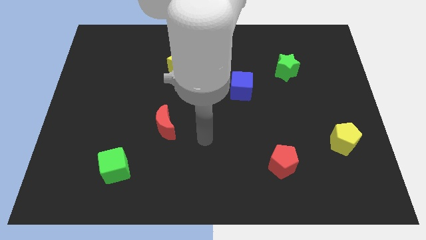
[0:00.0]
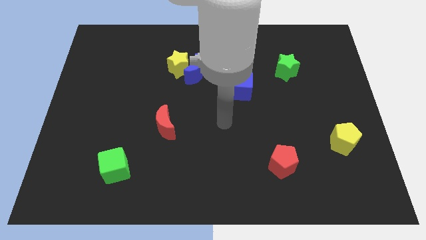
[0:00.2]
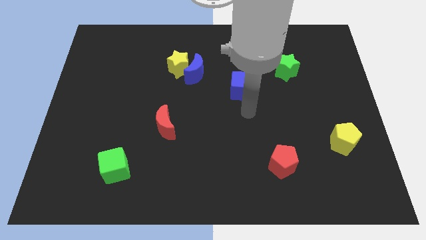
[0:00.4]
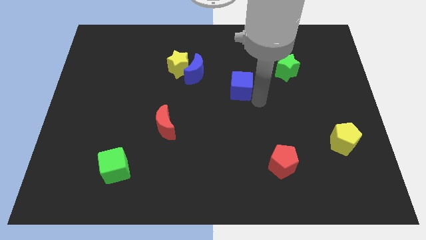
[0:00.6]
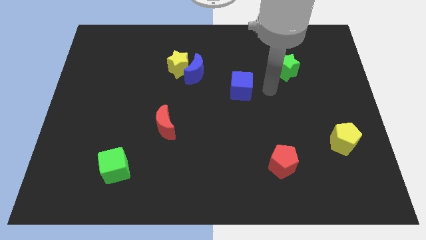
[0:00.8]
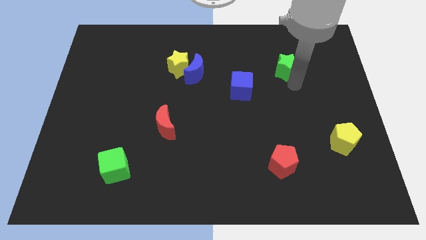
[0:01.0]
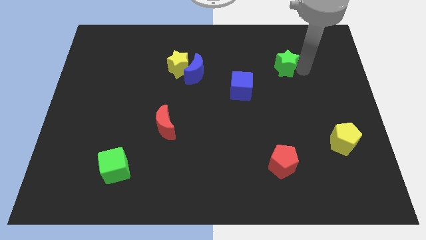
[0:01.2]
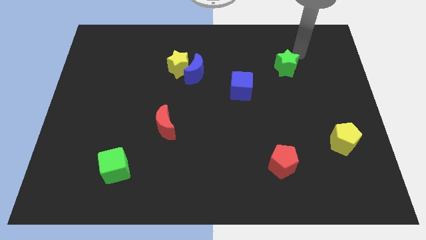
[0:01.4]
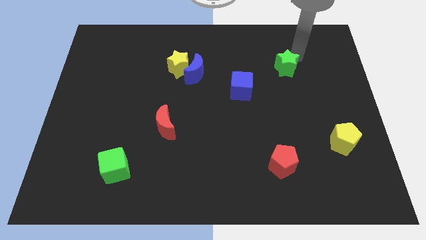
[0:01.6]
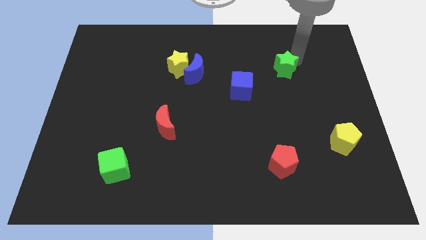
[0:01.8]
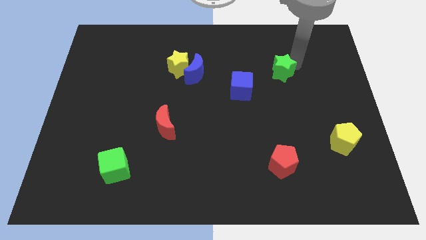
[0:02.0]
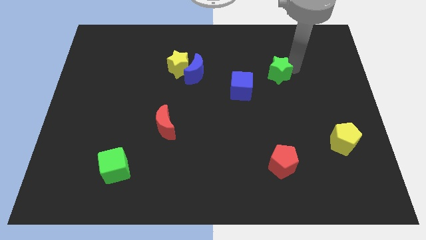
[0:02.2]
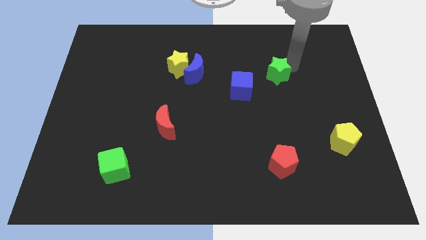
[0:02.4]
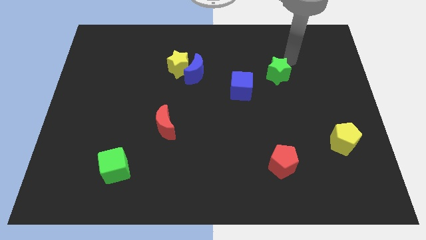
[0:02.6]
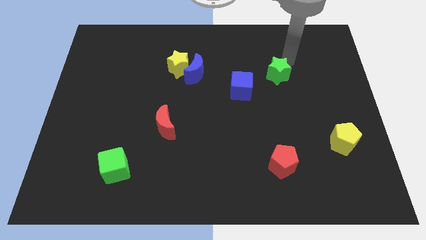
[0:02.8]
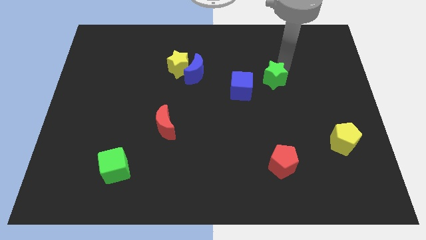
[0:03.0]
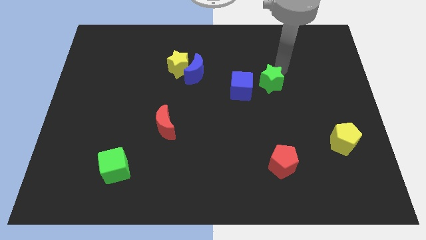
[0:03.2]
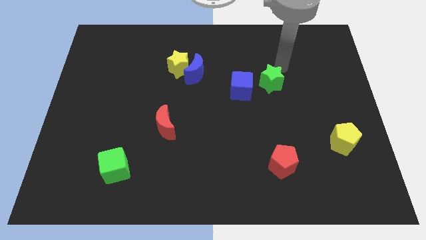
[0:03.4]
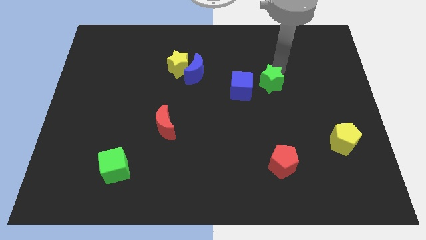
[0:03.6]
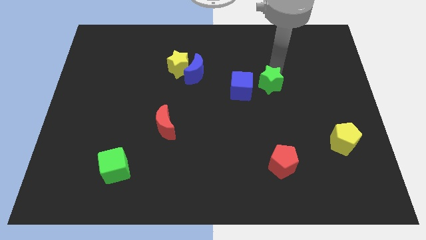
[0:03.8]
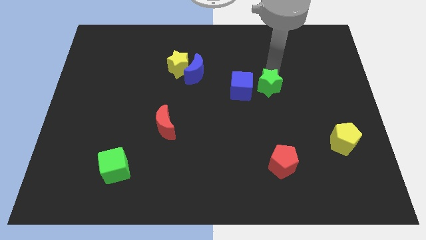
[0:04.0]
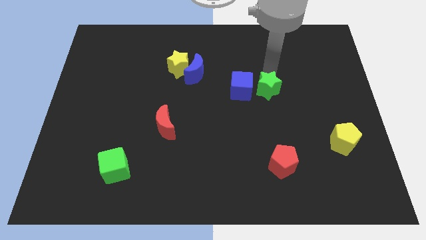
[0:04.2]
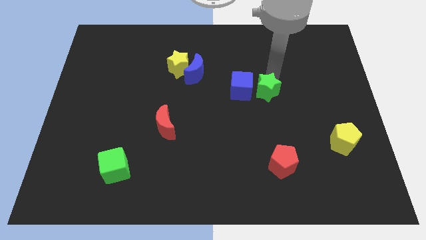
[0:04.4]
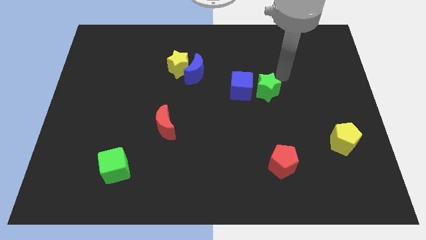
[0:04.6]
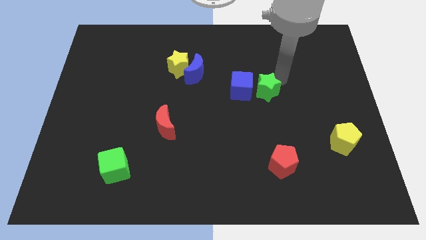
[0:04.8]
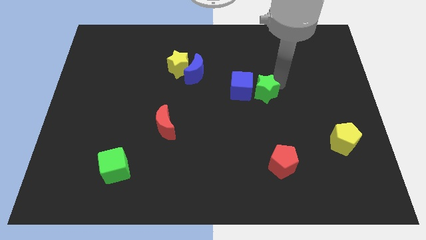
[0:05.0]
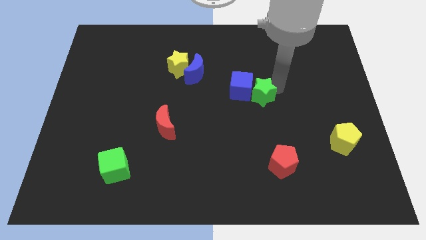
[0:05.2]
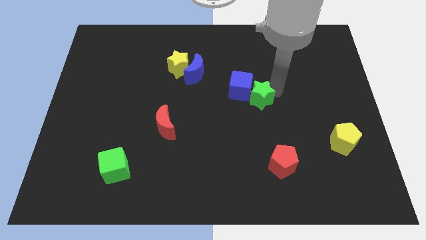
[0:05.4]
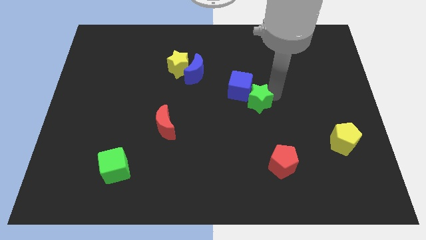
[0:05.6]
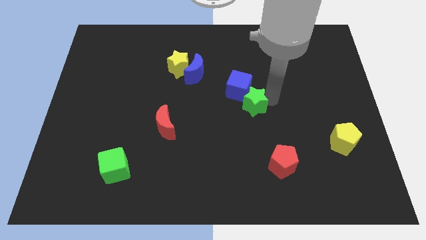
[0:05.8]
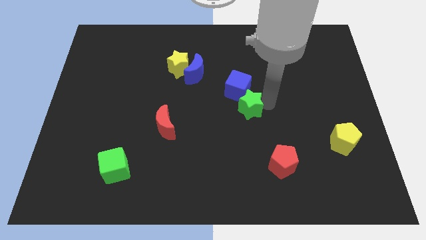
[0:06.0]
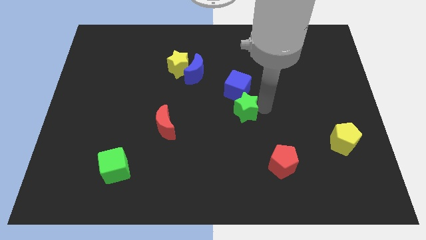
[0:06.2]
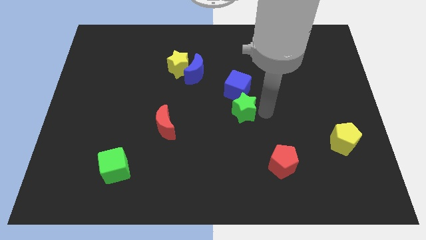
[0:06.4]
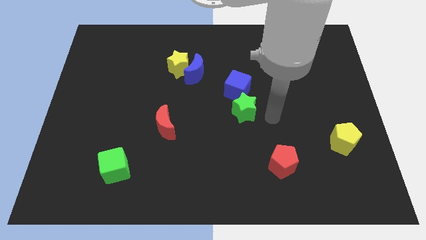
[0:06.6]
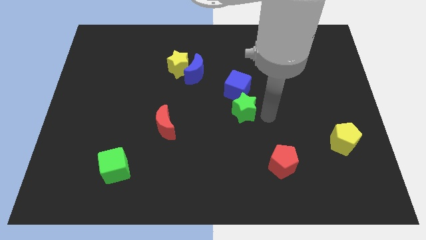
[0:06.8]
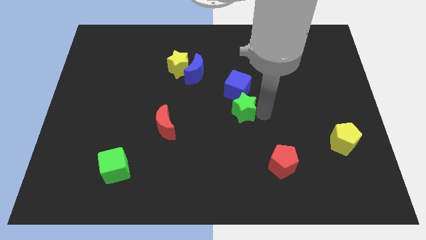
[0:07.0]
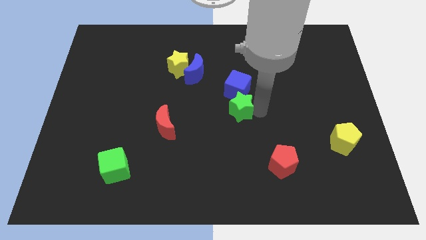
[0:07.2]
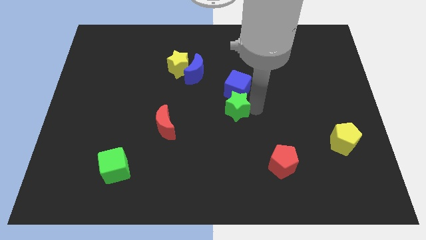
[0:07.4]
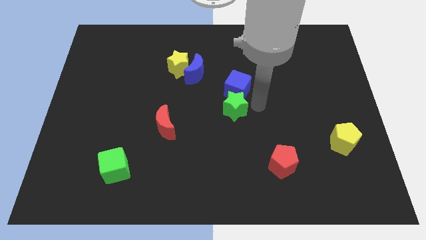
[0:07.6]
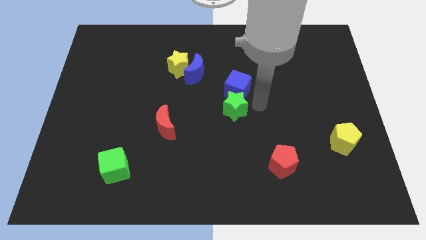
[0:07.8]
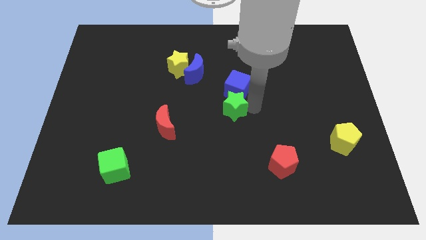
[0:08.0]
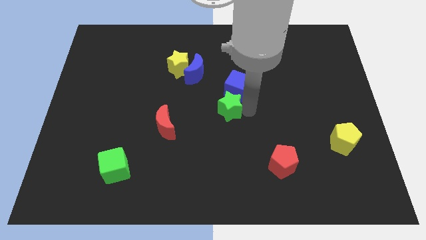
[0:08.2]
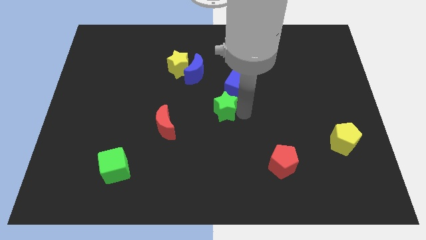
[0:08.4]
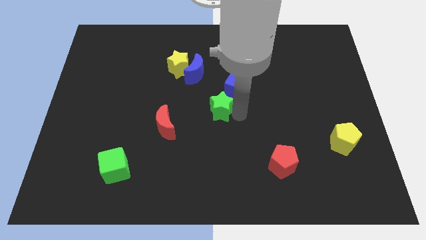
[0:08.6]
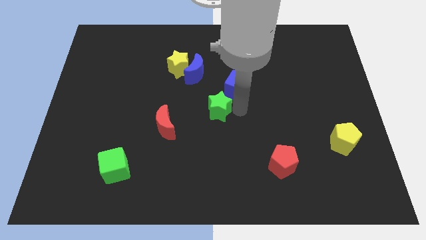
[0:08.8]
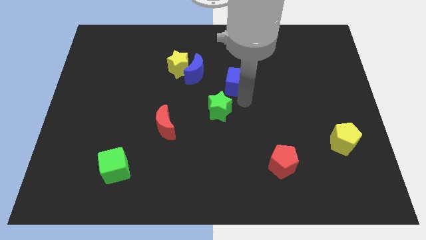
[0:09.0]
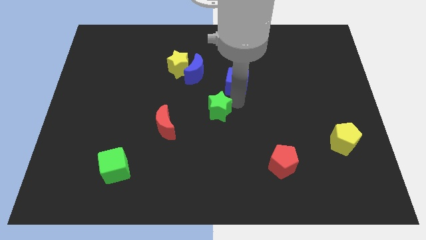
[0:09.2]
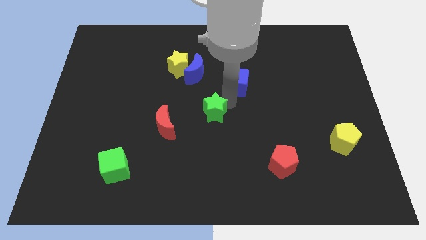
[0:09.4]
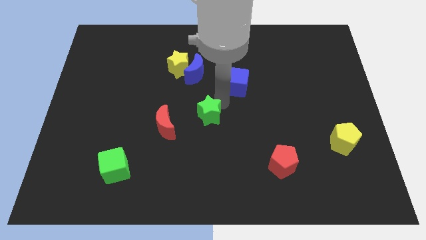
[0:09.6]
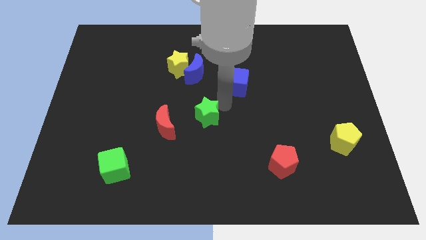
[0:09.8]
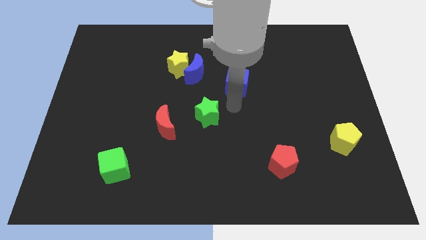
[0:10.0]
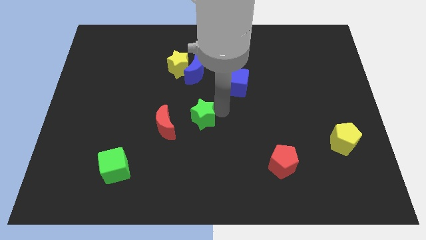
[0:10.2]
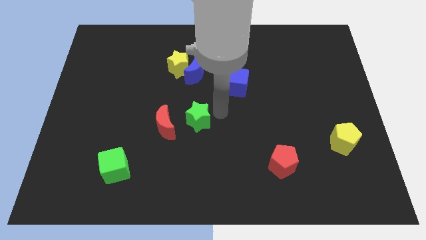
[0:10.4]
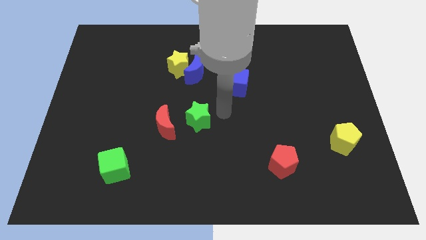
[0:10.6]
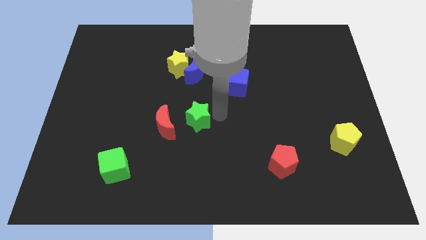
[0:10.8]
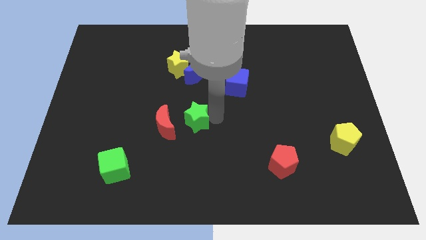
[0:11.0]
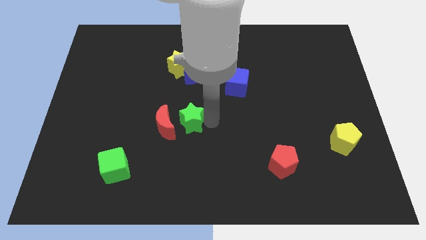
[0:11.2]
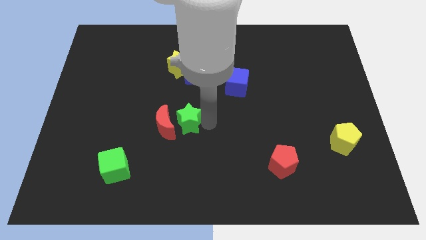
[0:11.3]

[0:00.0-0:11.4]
push the green star to the red moon

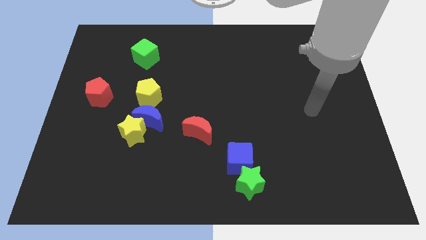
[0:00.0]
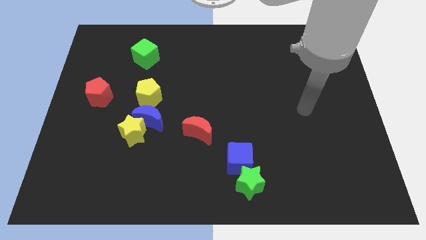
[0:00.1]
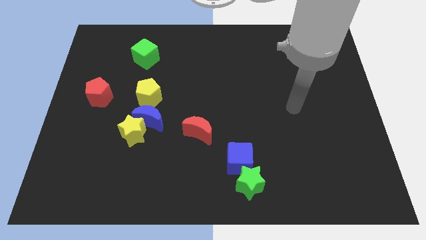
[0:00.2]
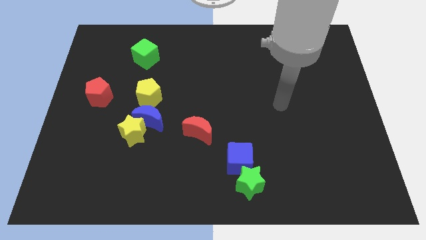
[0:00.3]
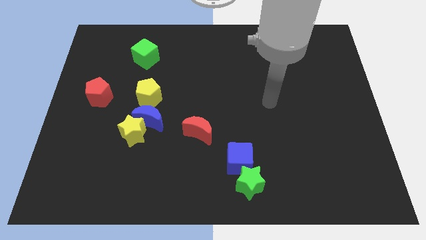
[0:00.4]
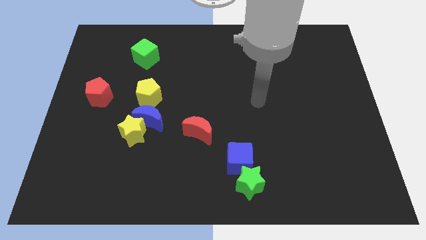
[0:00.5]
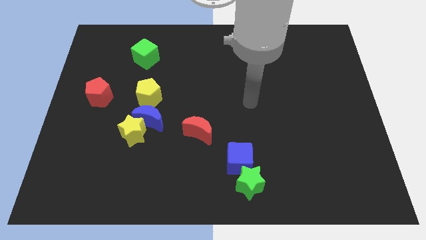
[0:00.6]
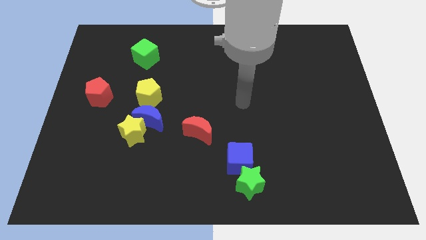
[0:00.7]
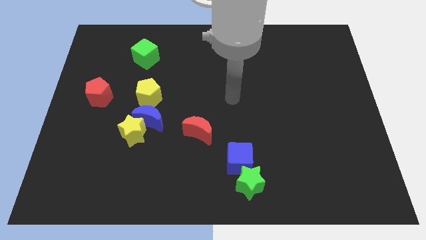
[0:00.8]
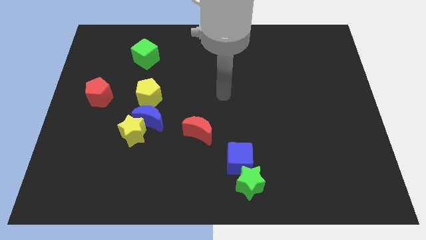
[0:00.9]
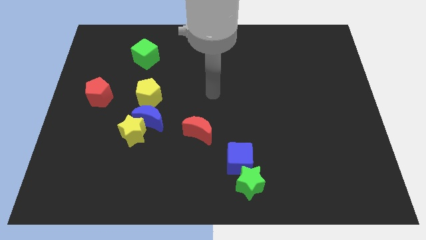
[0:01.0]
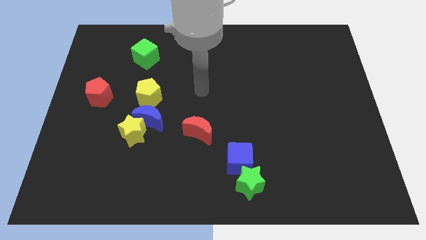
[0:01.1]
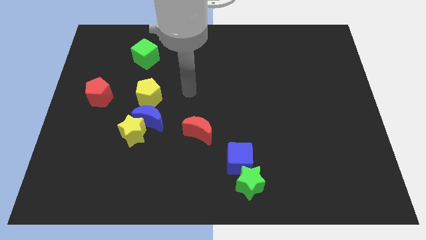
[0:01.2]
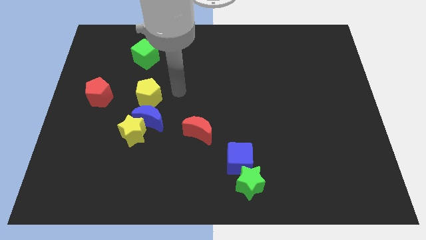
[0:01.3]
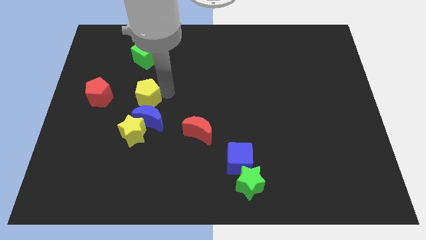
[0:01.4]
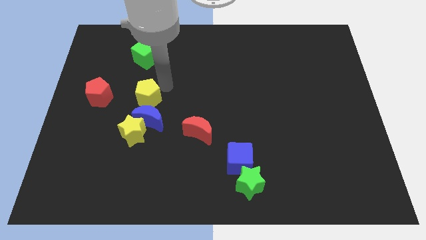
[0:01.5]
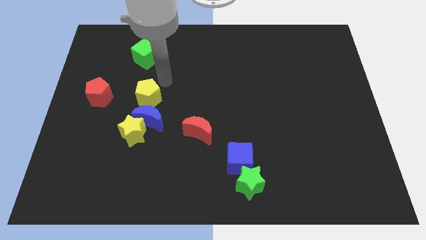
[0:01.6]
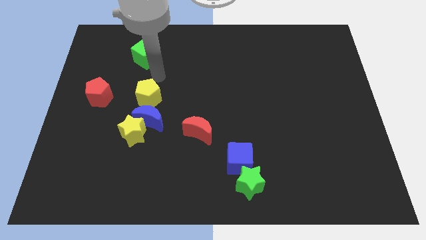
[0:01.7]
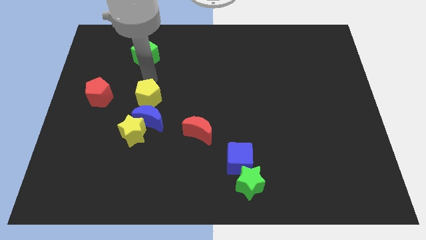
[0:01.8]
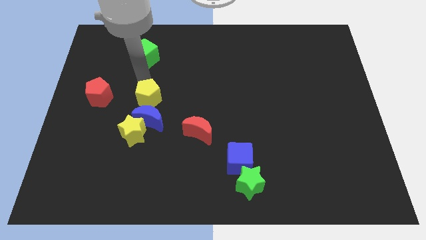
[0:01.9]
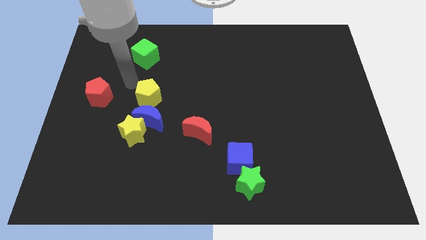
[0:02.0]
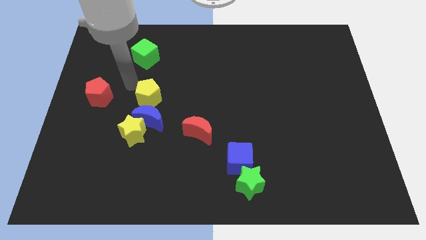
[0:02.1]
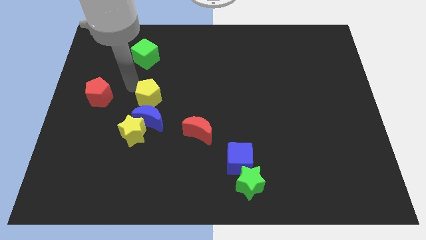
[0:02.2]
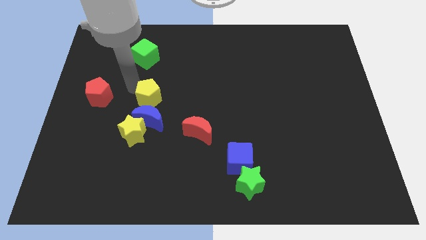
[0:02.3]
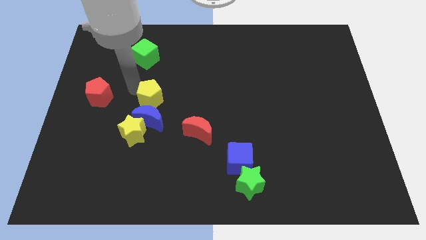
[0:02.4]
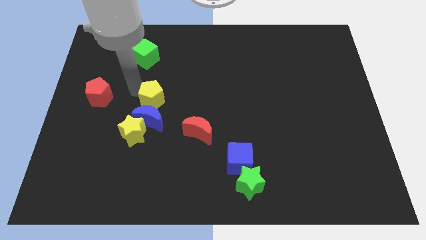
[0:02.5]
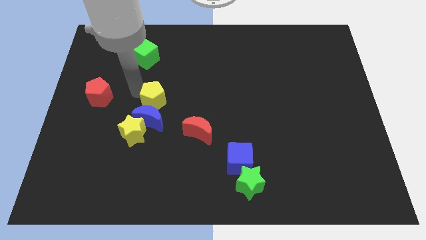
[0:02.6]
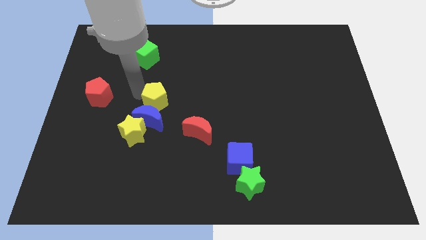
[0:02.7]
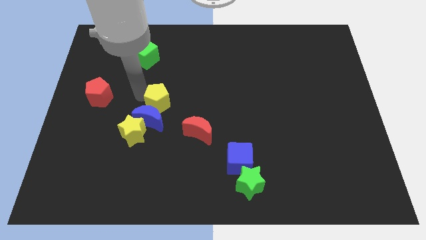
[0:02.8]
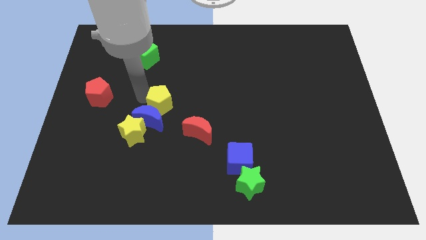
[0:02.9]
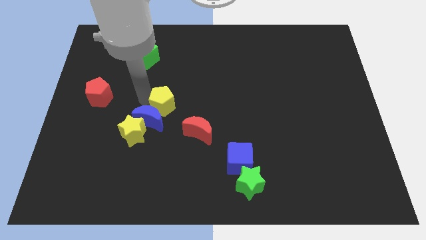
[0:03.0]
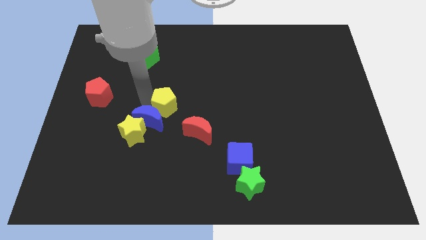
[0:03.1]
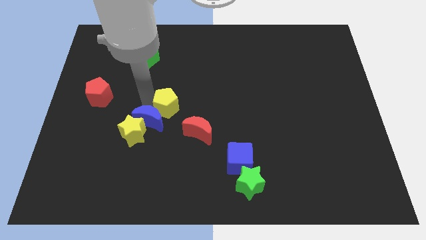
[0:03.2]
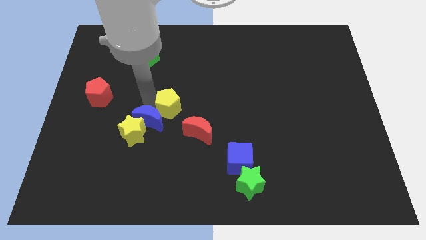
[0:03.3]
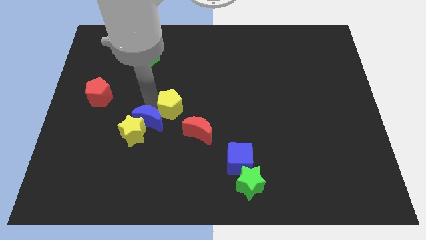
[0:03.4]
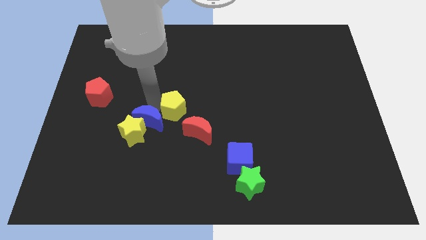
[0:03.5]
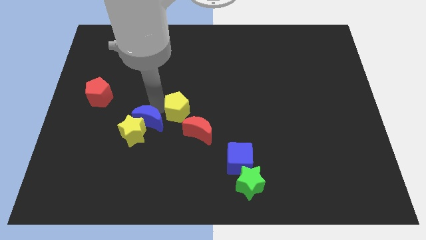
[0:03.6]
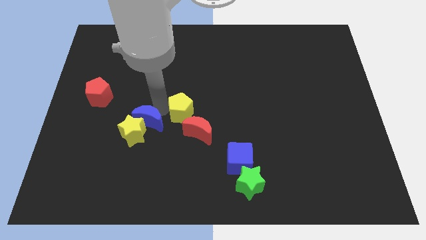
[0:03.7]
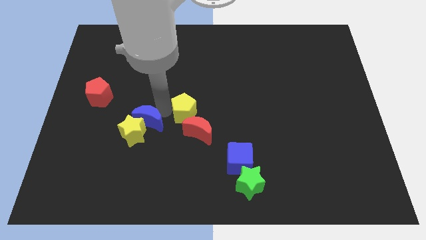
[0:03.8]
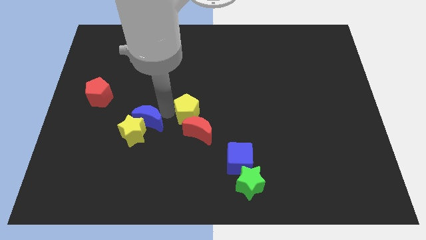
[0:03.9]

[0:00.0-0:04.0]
move the yellow pentagon next to the red moon
